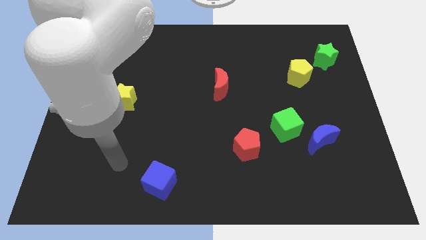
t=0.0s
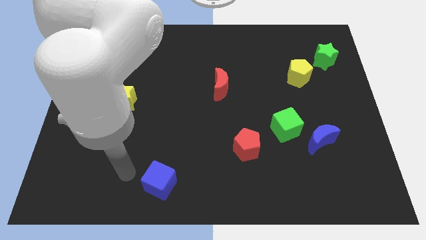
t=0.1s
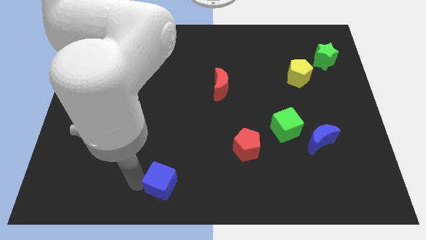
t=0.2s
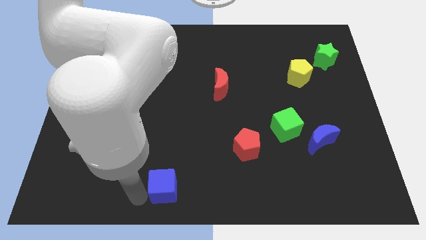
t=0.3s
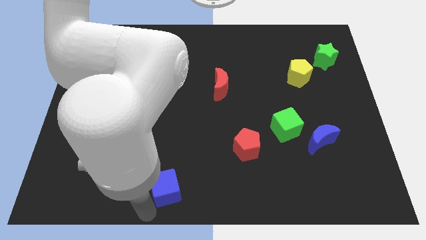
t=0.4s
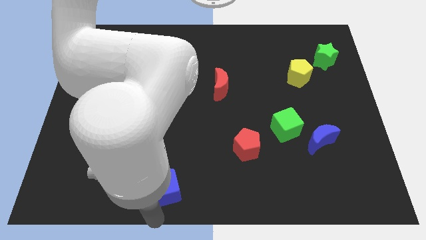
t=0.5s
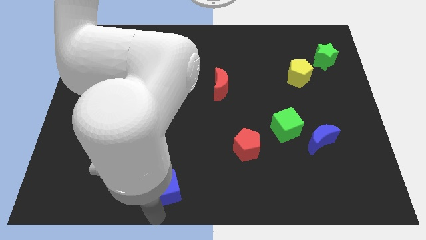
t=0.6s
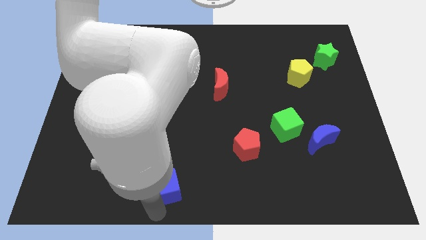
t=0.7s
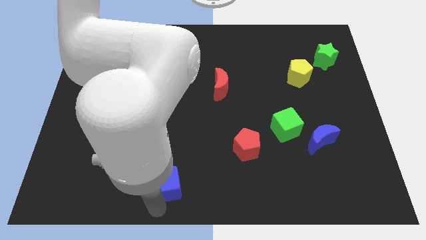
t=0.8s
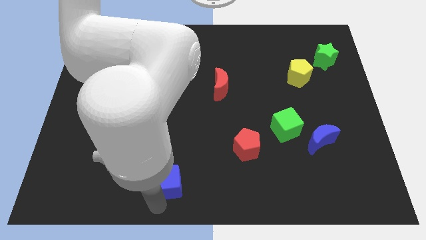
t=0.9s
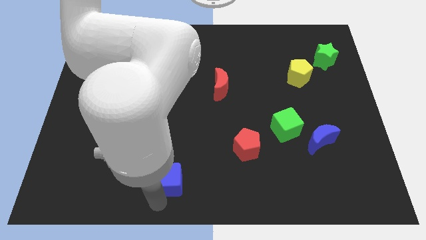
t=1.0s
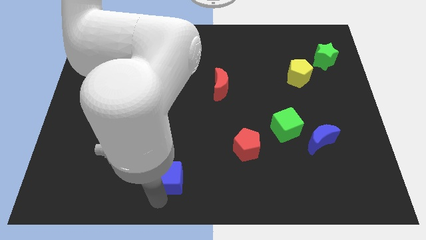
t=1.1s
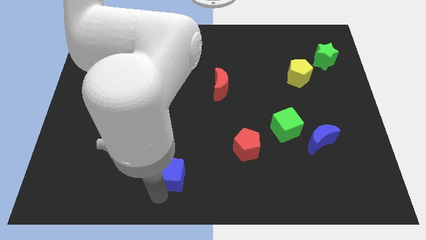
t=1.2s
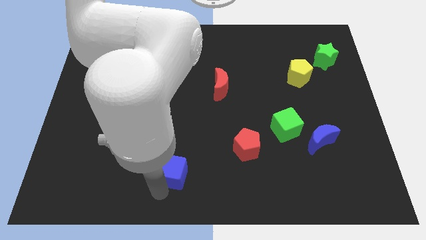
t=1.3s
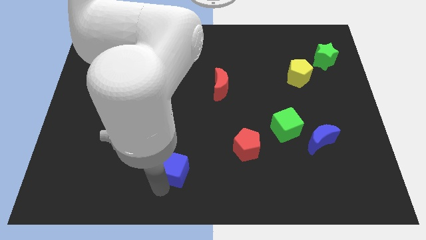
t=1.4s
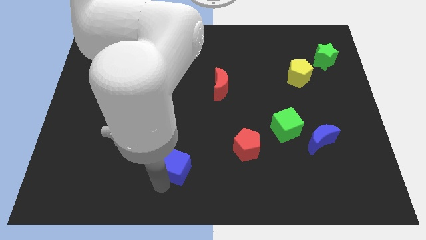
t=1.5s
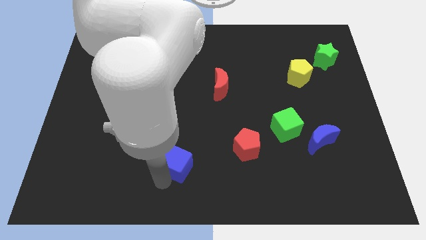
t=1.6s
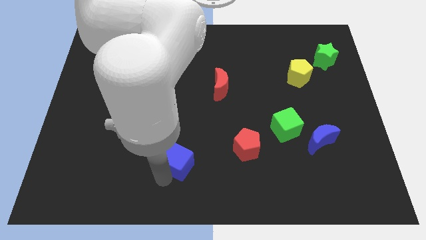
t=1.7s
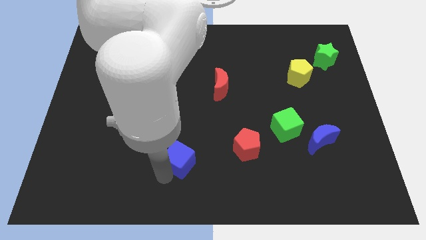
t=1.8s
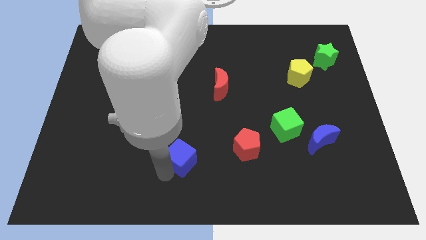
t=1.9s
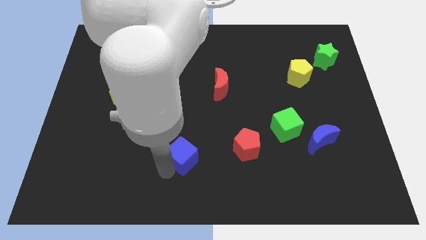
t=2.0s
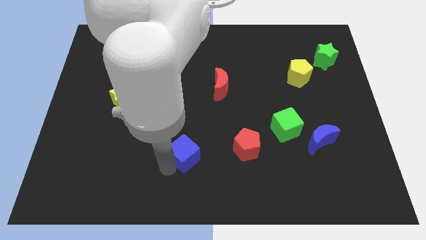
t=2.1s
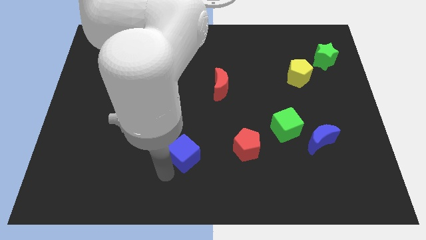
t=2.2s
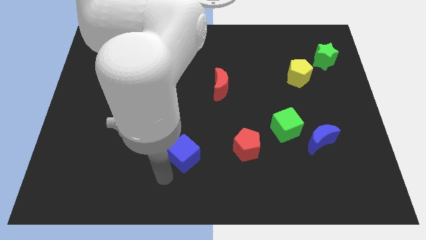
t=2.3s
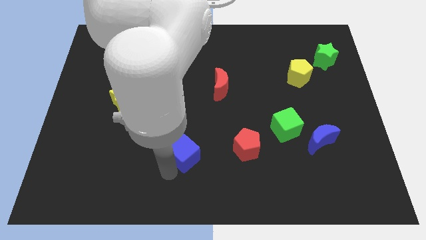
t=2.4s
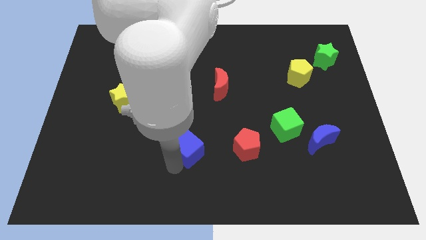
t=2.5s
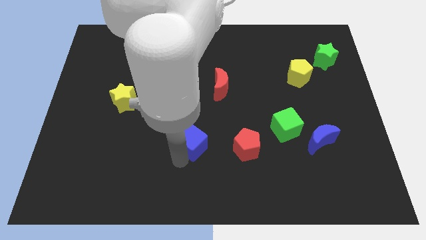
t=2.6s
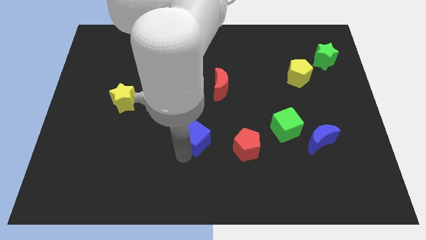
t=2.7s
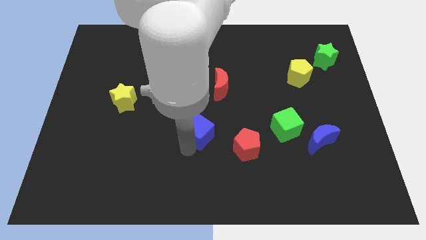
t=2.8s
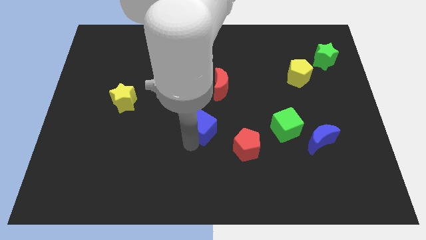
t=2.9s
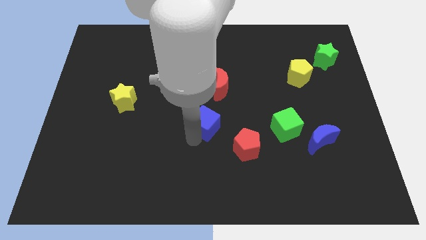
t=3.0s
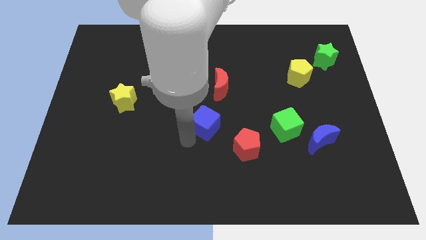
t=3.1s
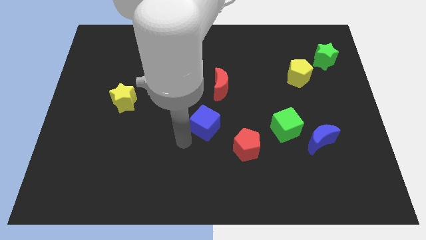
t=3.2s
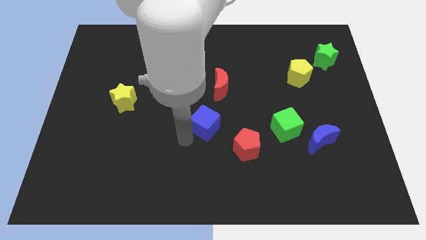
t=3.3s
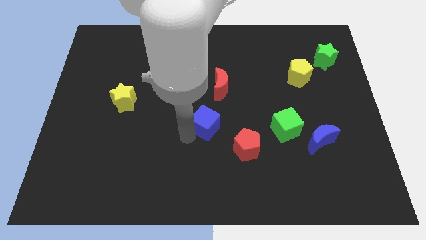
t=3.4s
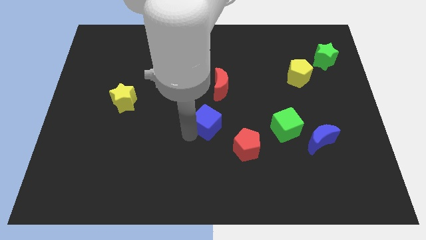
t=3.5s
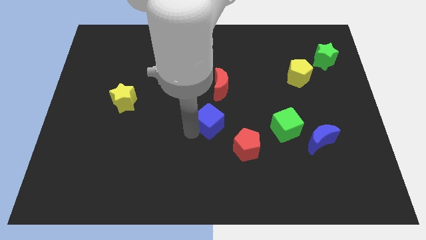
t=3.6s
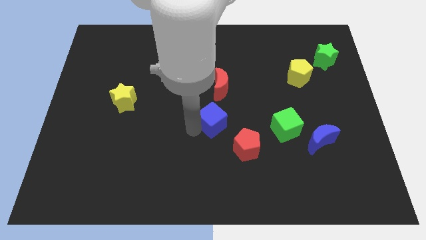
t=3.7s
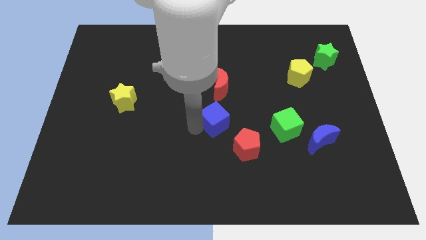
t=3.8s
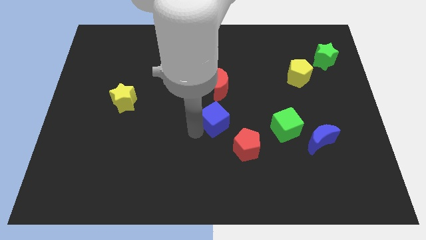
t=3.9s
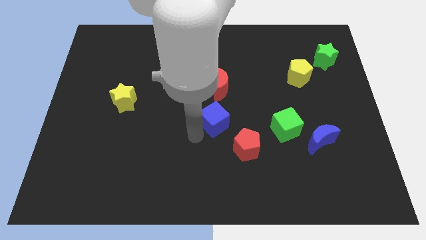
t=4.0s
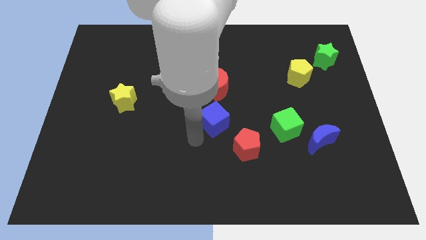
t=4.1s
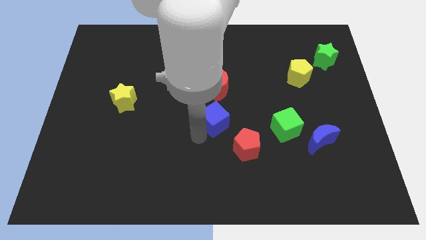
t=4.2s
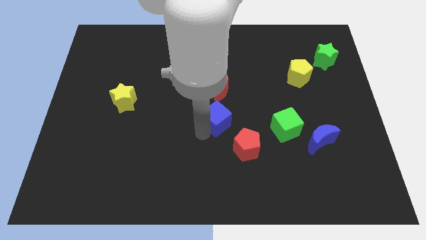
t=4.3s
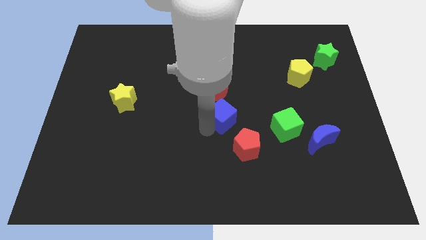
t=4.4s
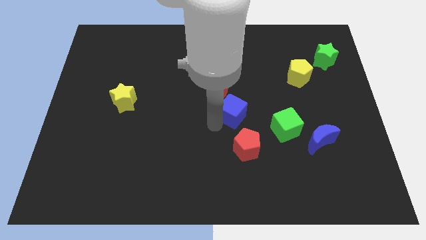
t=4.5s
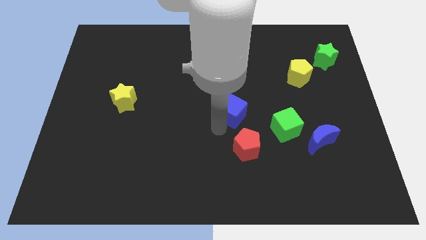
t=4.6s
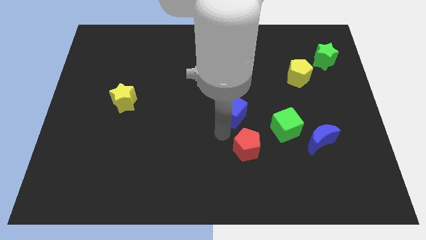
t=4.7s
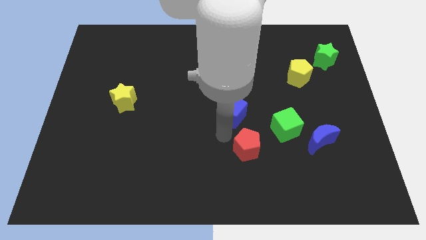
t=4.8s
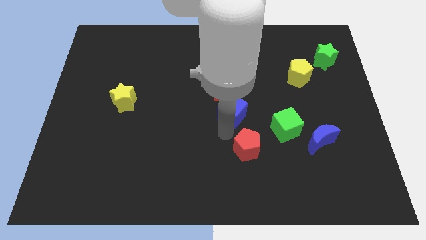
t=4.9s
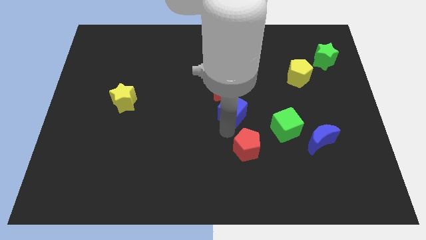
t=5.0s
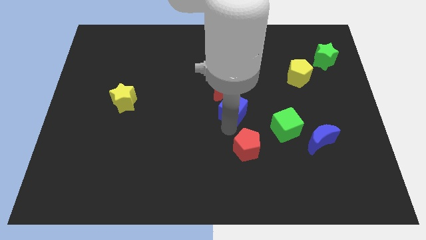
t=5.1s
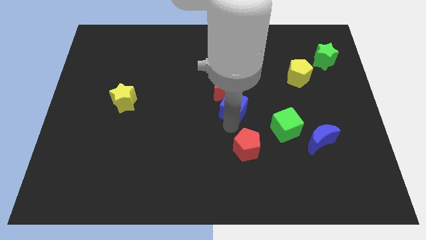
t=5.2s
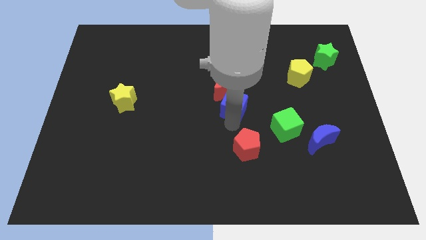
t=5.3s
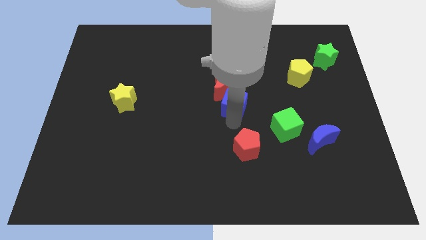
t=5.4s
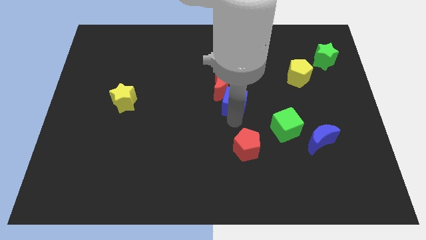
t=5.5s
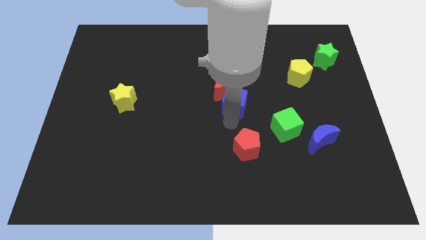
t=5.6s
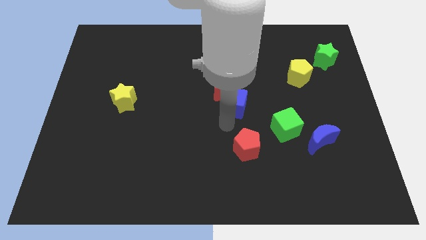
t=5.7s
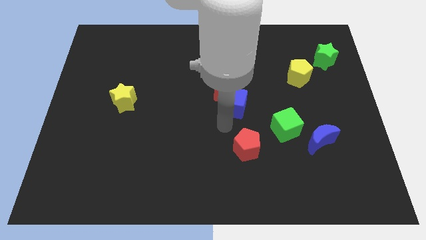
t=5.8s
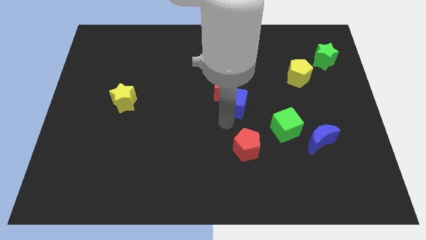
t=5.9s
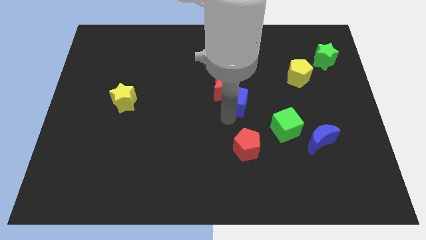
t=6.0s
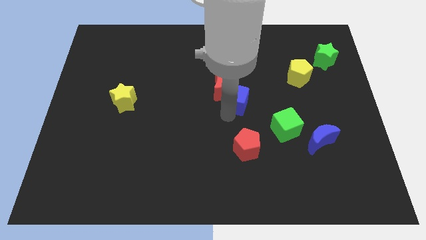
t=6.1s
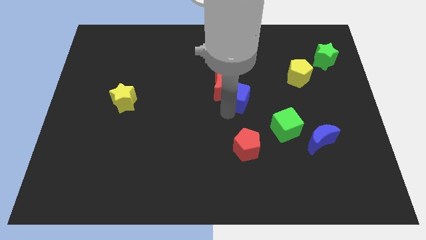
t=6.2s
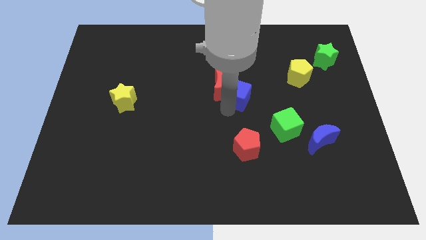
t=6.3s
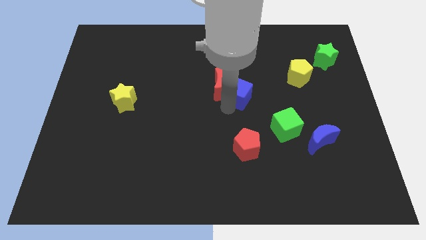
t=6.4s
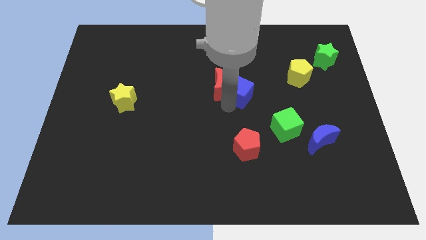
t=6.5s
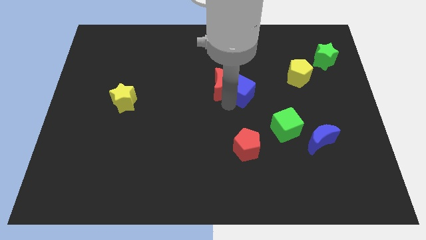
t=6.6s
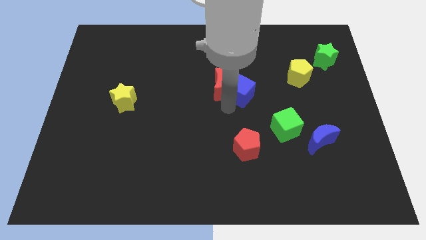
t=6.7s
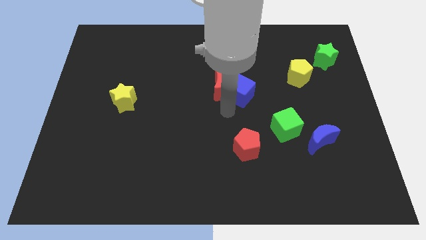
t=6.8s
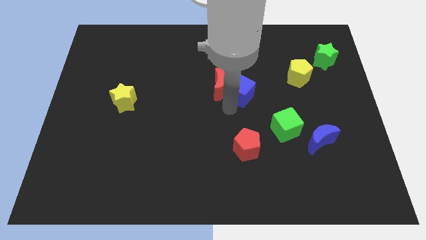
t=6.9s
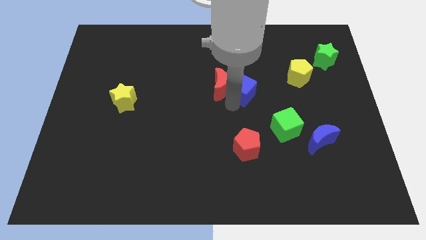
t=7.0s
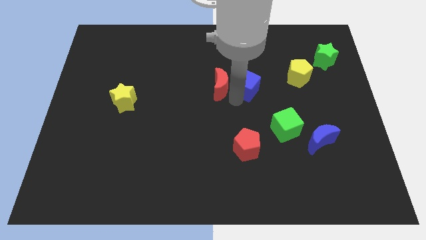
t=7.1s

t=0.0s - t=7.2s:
slide the blue cube just left of the yellow pentagon
